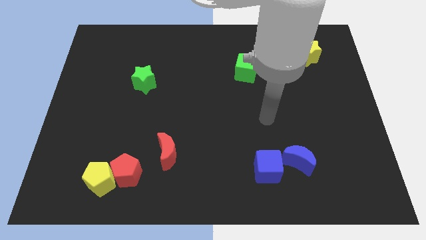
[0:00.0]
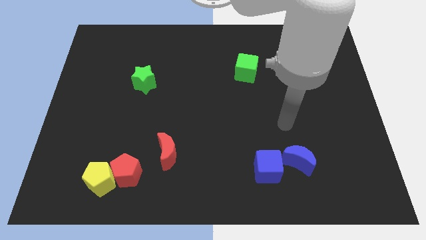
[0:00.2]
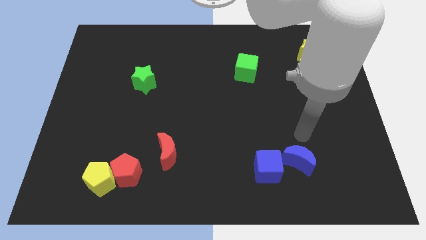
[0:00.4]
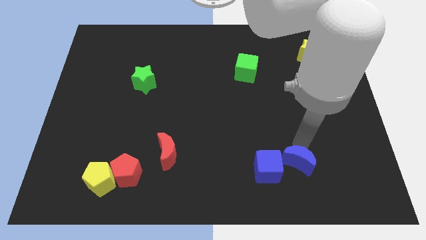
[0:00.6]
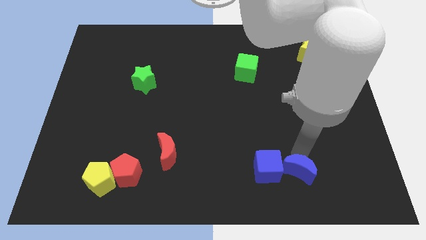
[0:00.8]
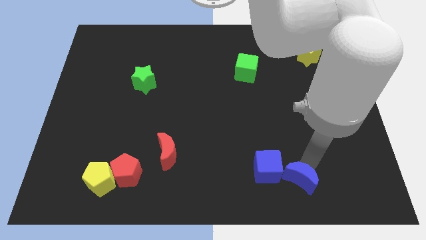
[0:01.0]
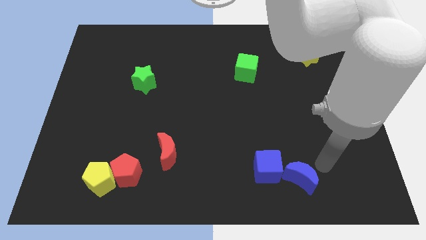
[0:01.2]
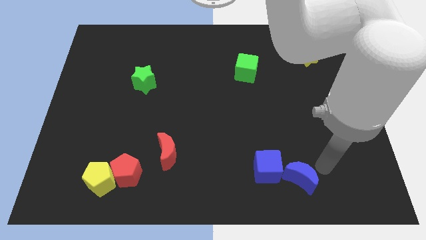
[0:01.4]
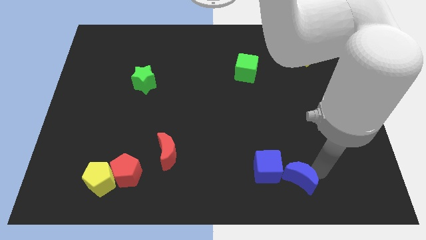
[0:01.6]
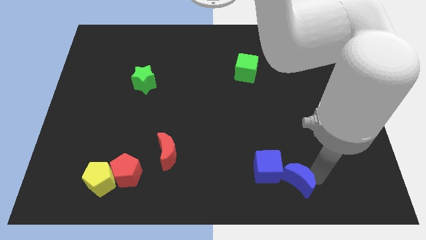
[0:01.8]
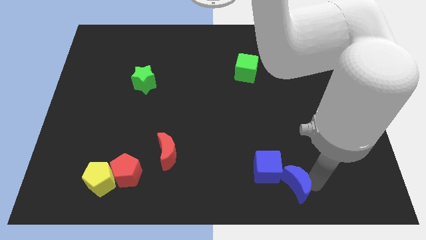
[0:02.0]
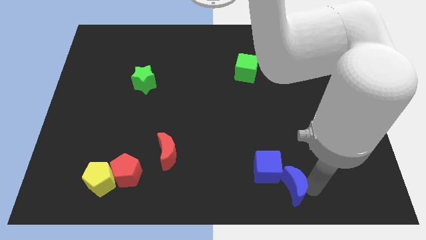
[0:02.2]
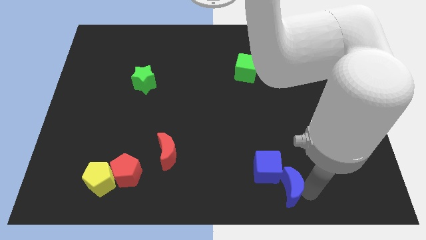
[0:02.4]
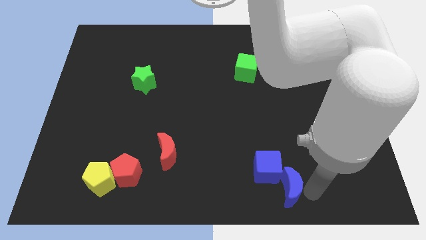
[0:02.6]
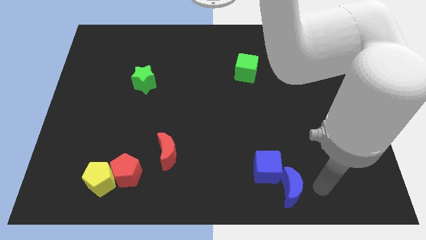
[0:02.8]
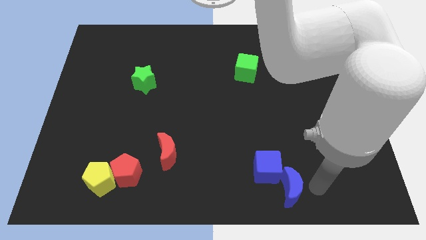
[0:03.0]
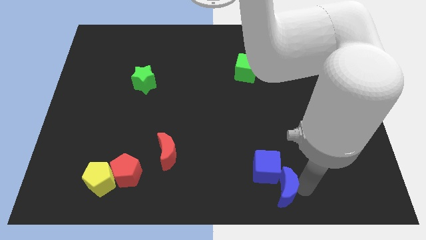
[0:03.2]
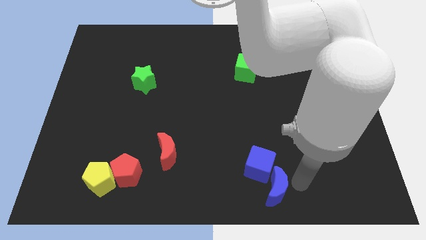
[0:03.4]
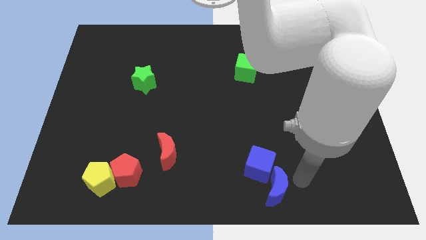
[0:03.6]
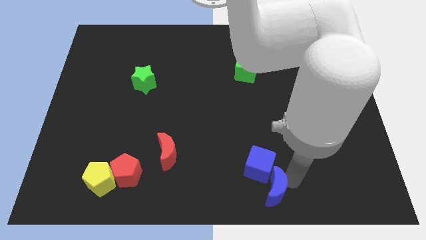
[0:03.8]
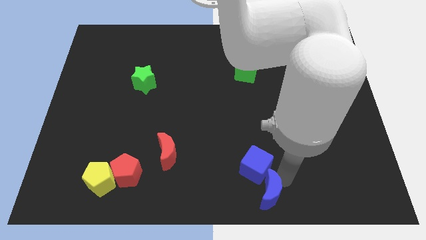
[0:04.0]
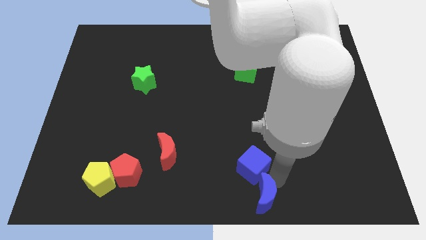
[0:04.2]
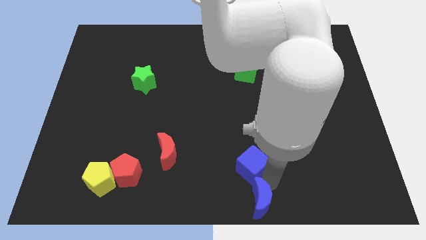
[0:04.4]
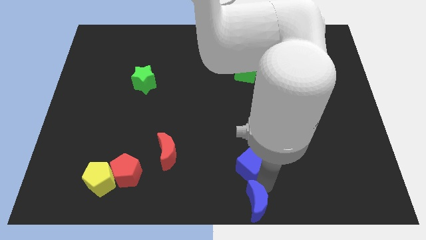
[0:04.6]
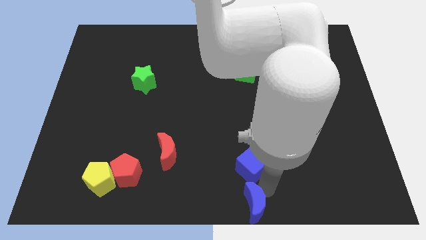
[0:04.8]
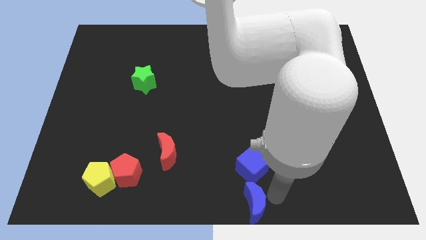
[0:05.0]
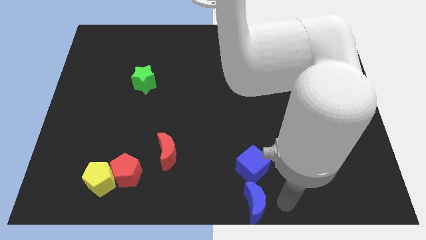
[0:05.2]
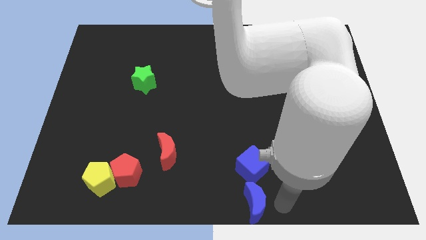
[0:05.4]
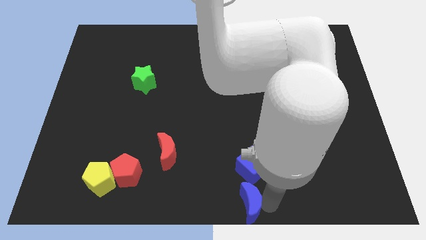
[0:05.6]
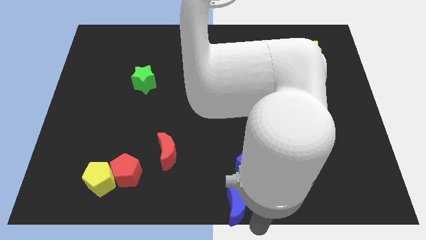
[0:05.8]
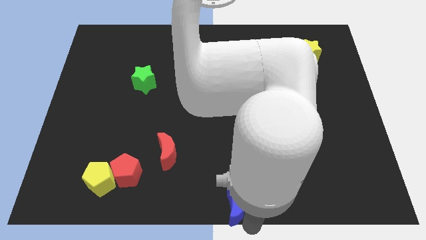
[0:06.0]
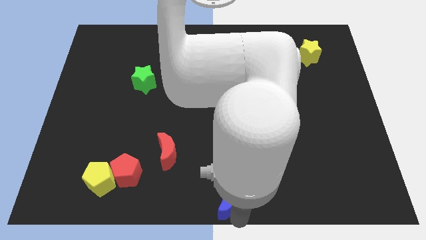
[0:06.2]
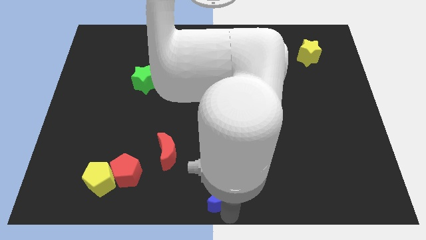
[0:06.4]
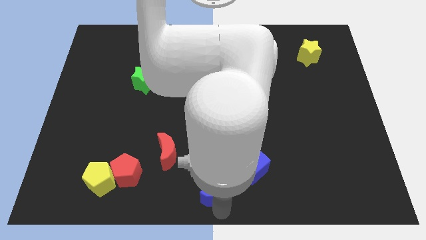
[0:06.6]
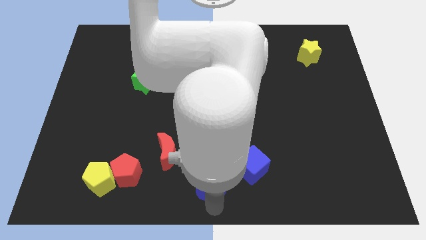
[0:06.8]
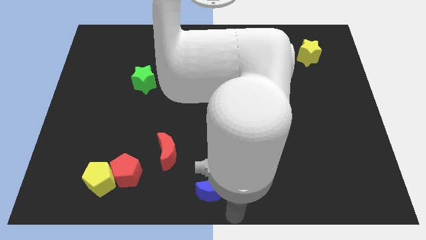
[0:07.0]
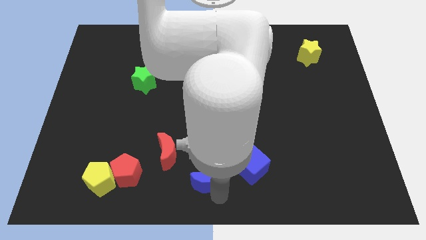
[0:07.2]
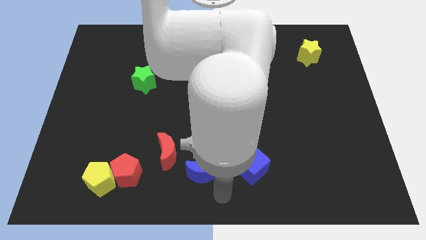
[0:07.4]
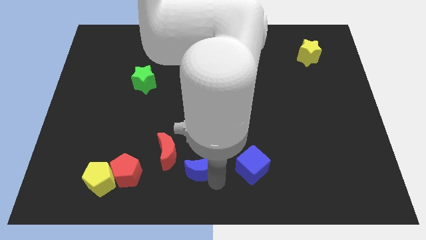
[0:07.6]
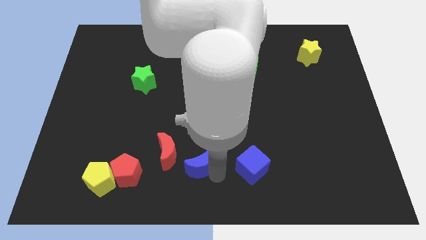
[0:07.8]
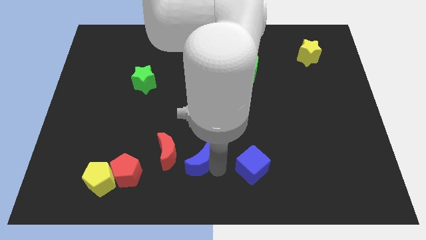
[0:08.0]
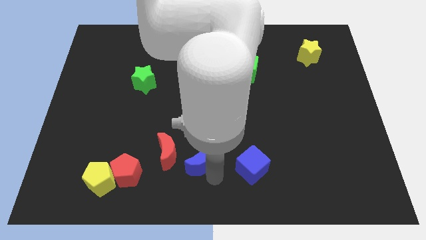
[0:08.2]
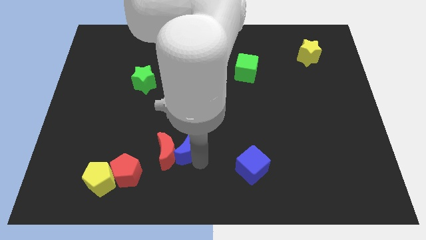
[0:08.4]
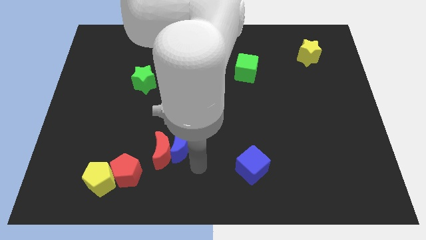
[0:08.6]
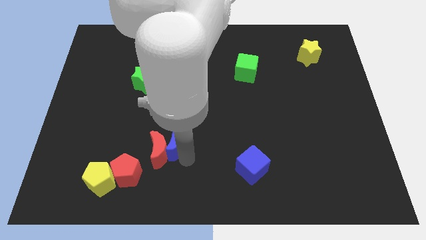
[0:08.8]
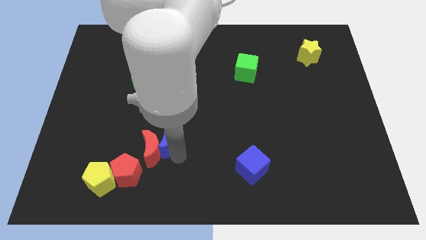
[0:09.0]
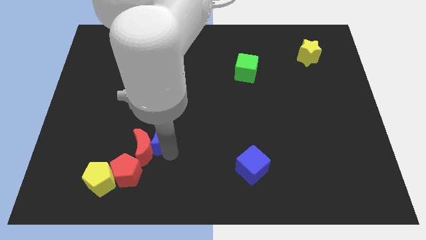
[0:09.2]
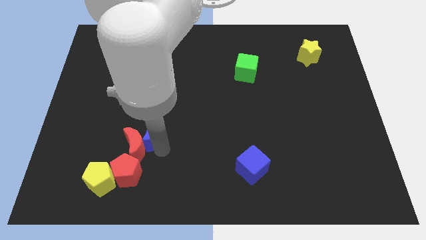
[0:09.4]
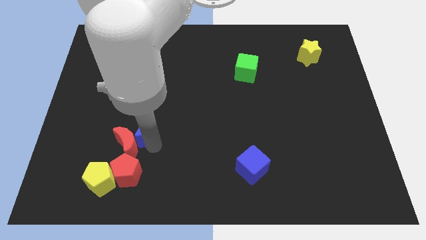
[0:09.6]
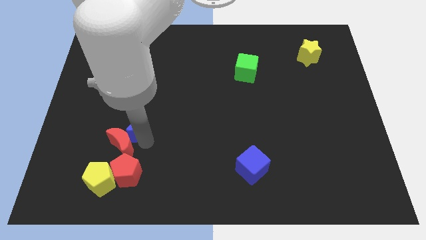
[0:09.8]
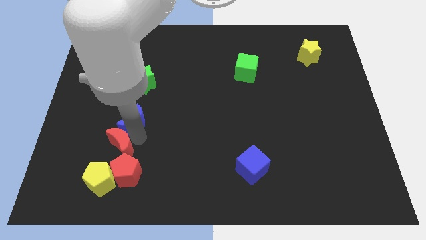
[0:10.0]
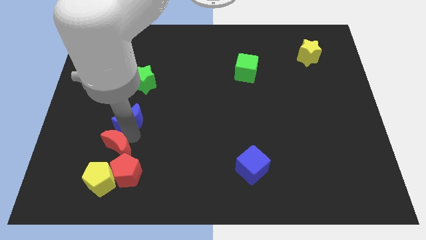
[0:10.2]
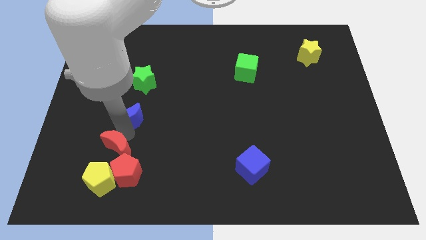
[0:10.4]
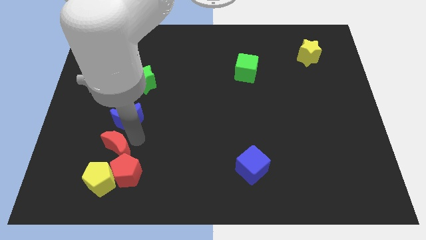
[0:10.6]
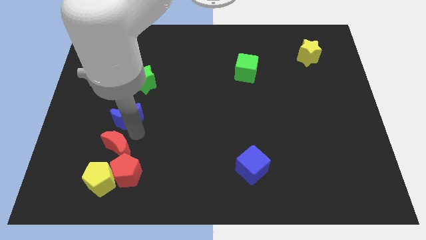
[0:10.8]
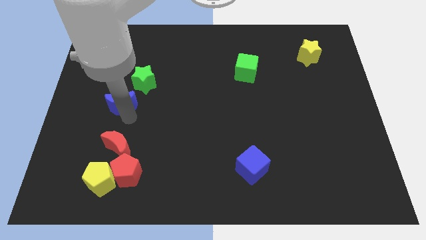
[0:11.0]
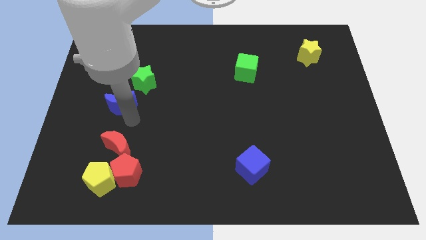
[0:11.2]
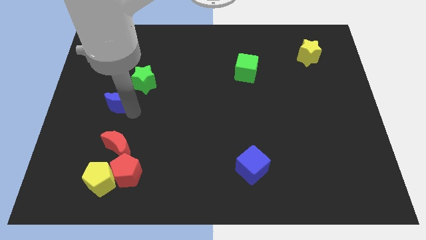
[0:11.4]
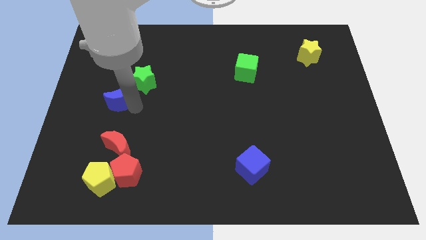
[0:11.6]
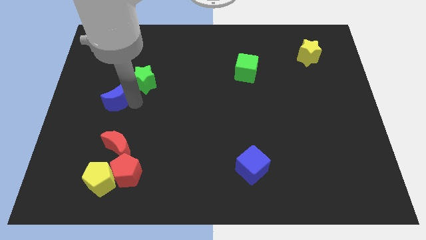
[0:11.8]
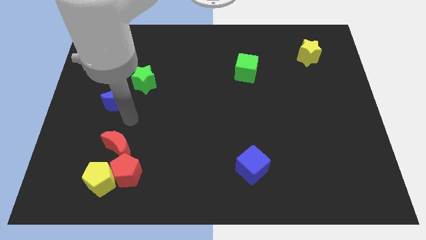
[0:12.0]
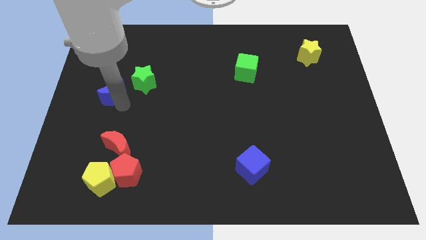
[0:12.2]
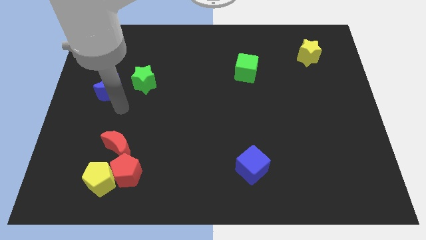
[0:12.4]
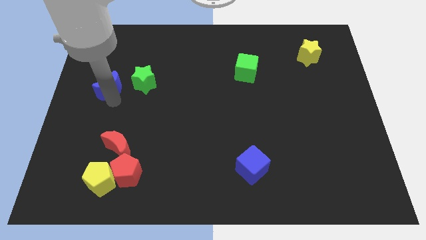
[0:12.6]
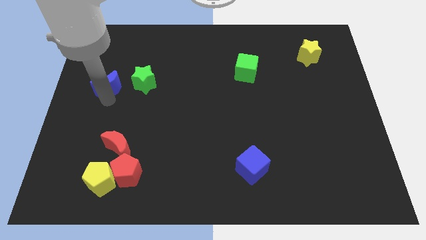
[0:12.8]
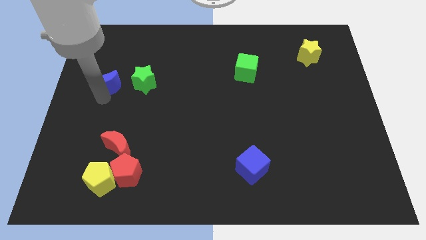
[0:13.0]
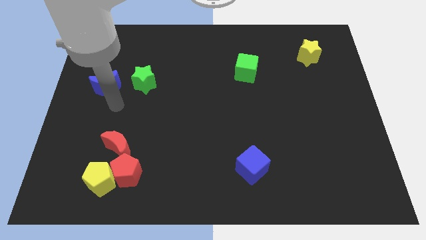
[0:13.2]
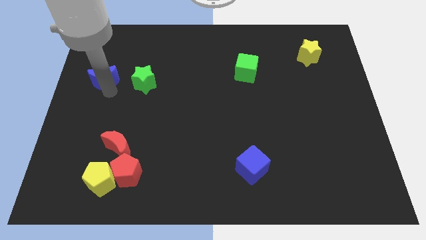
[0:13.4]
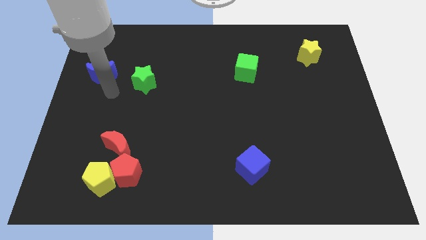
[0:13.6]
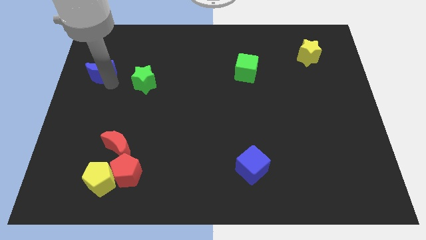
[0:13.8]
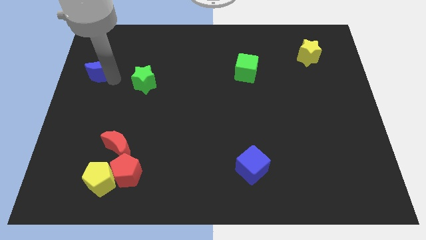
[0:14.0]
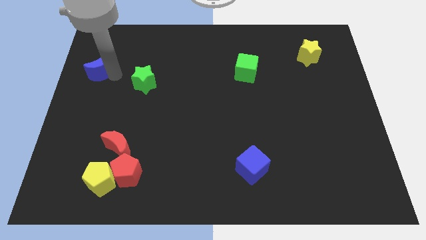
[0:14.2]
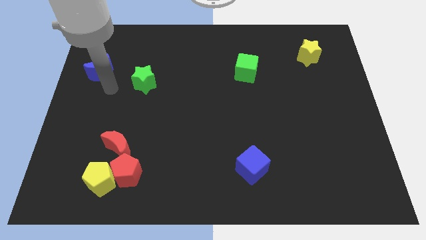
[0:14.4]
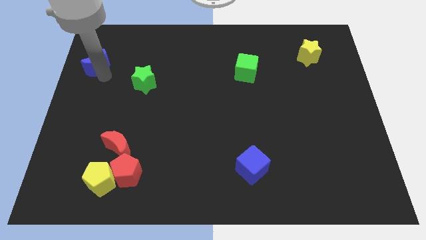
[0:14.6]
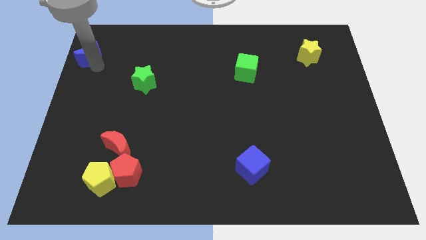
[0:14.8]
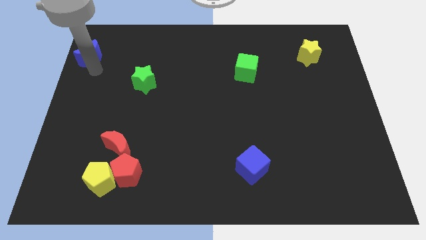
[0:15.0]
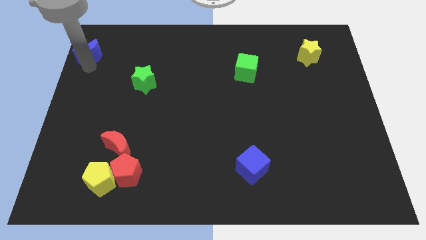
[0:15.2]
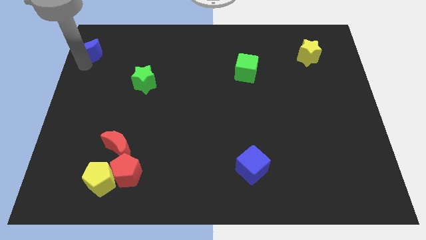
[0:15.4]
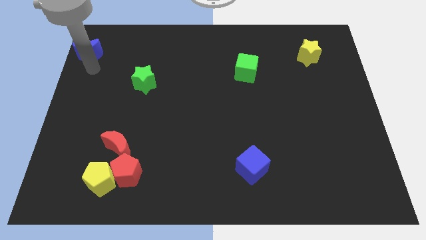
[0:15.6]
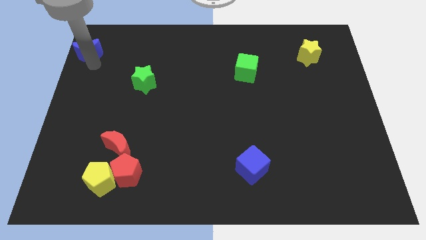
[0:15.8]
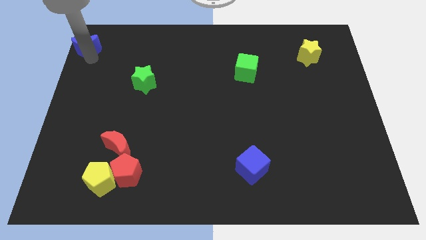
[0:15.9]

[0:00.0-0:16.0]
move the blue moon to the upper left corner
